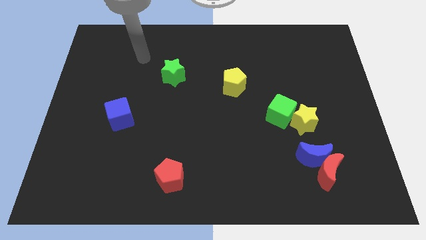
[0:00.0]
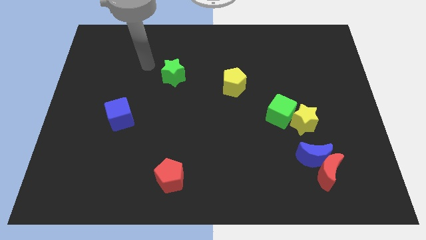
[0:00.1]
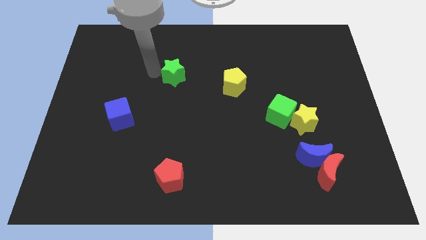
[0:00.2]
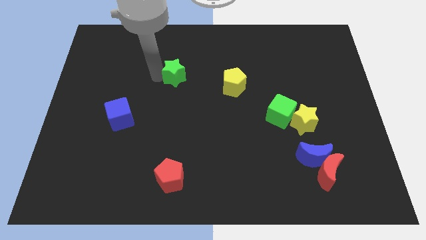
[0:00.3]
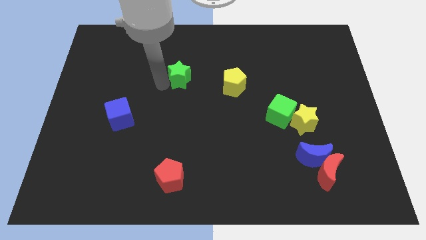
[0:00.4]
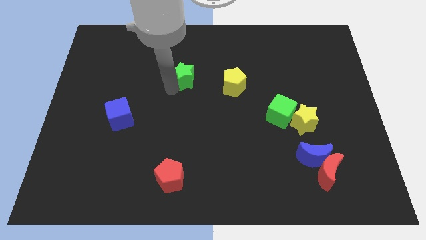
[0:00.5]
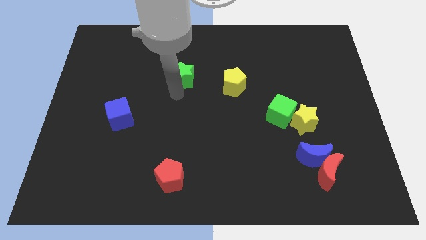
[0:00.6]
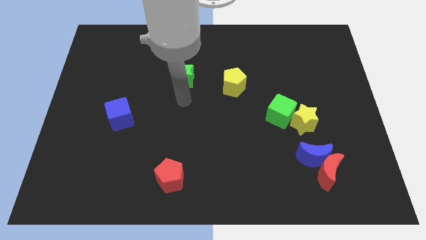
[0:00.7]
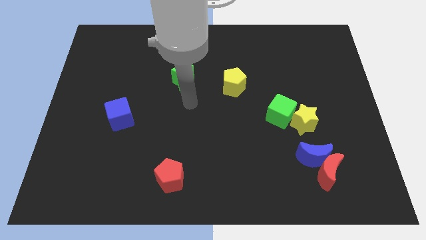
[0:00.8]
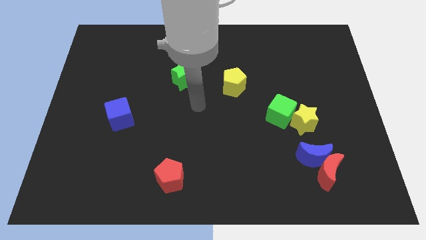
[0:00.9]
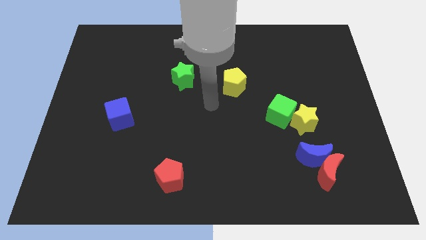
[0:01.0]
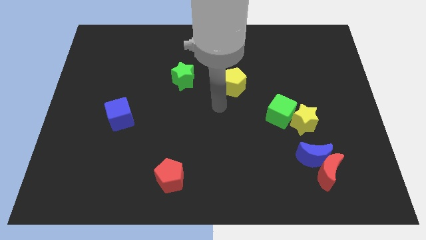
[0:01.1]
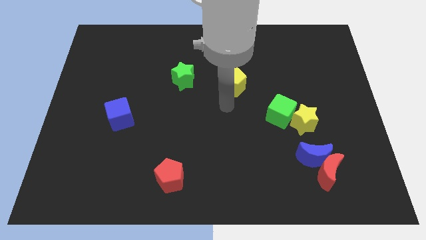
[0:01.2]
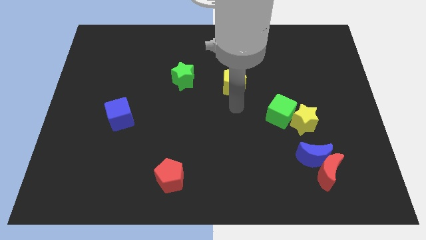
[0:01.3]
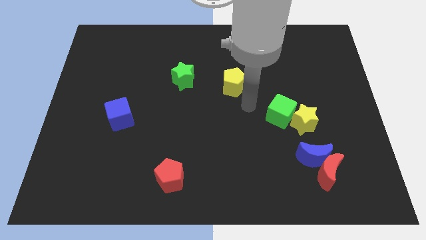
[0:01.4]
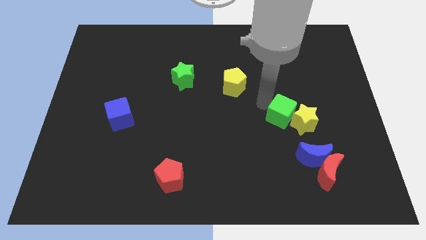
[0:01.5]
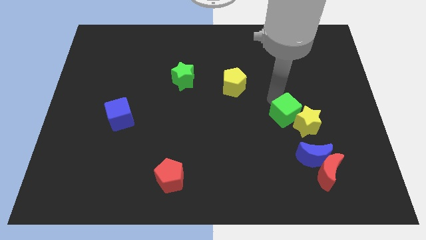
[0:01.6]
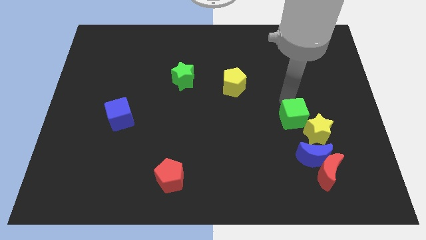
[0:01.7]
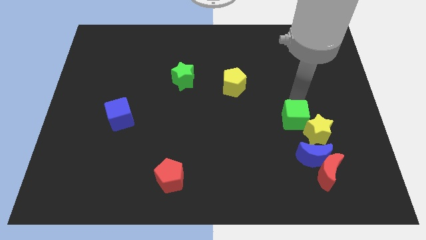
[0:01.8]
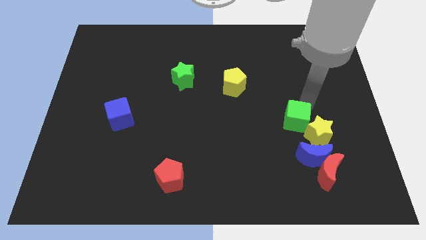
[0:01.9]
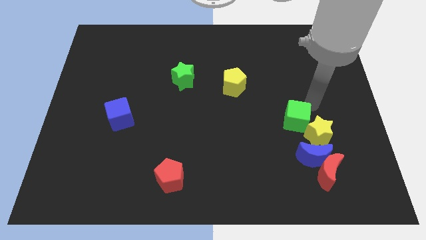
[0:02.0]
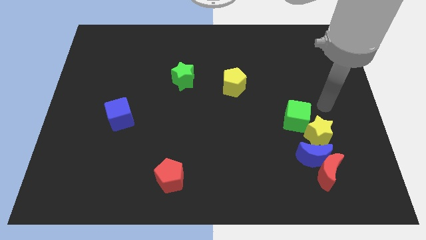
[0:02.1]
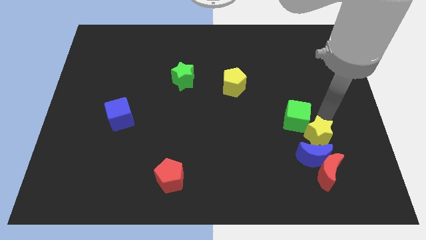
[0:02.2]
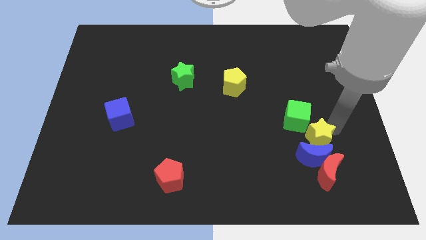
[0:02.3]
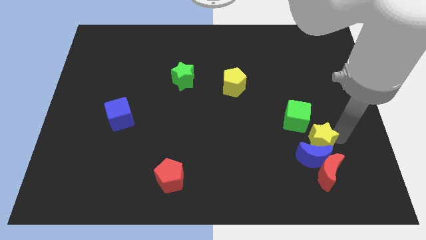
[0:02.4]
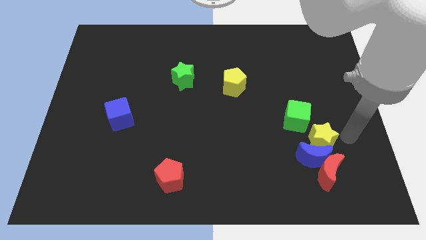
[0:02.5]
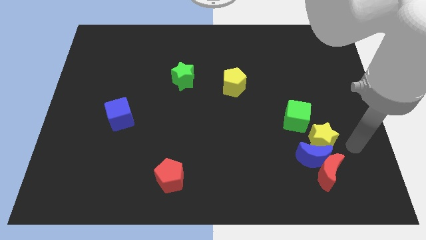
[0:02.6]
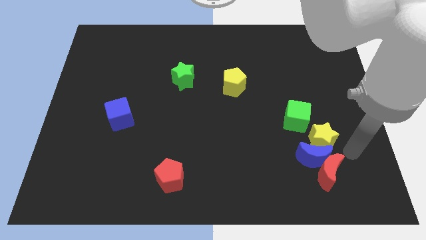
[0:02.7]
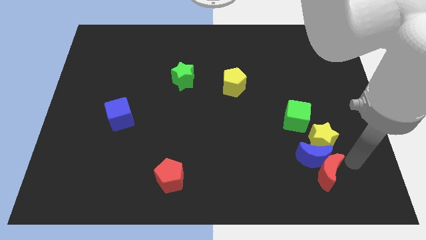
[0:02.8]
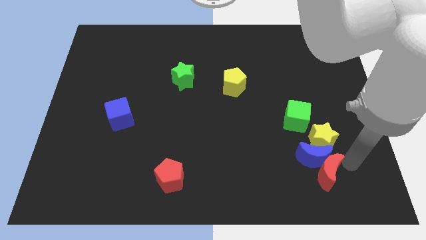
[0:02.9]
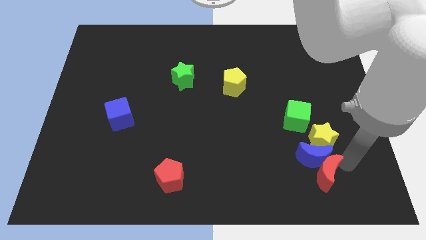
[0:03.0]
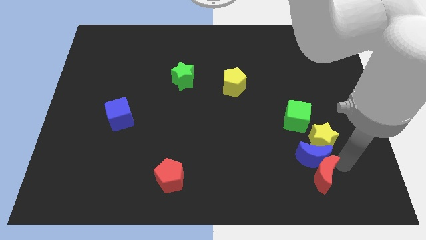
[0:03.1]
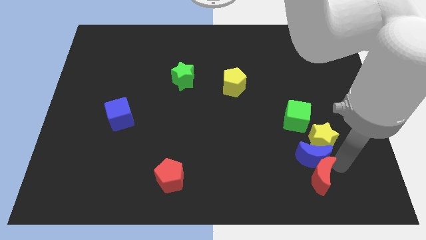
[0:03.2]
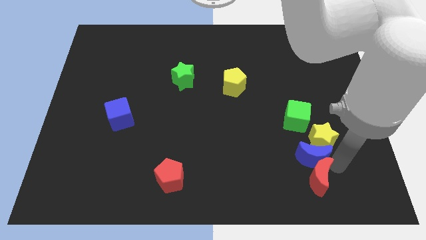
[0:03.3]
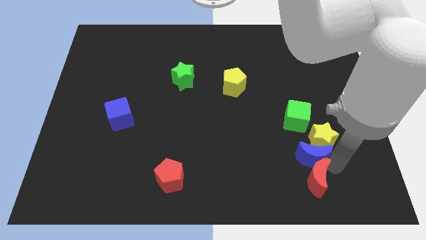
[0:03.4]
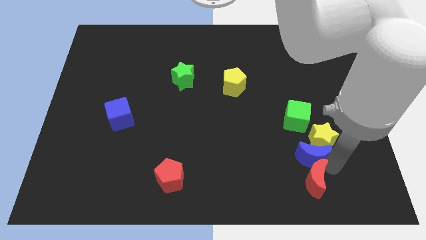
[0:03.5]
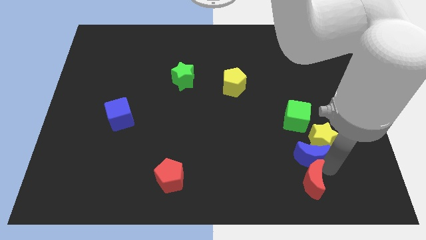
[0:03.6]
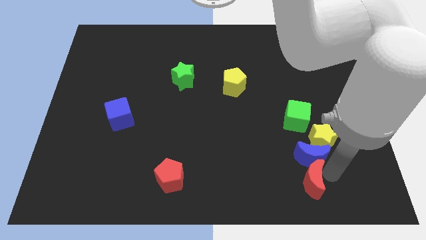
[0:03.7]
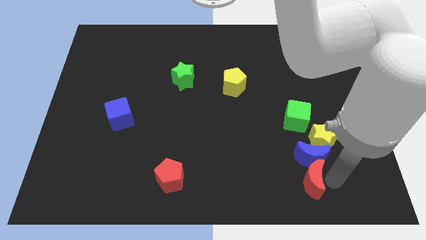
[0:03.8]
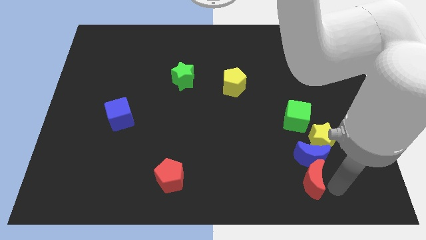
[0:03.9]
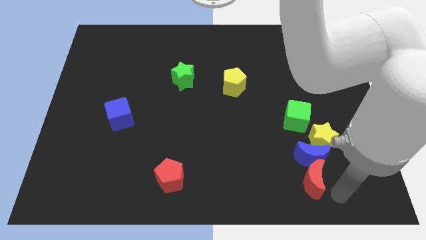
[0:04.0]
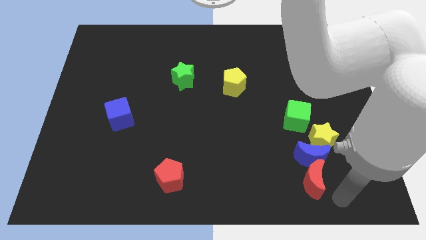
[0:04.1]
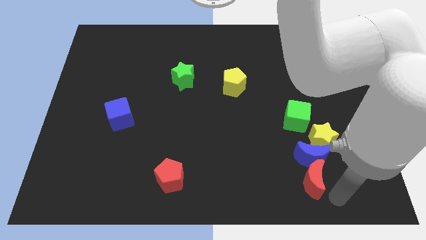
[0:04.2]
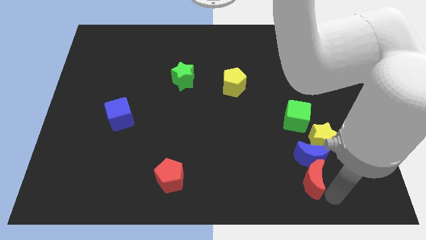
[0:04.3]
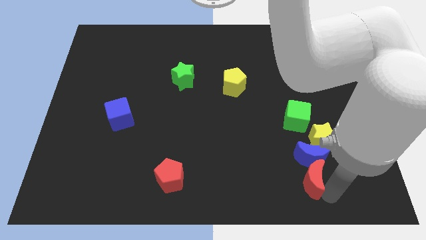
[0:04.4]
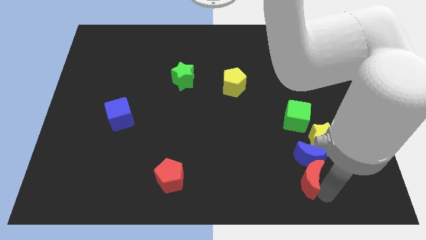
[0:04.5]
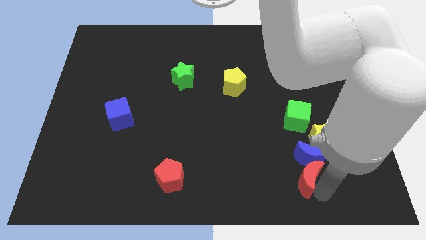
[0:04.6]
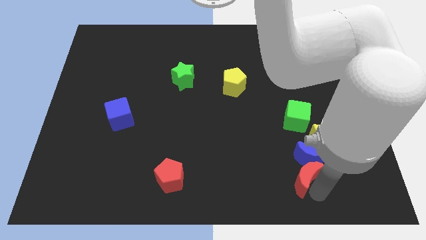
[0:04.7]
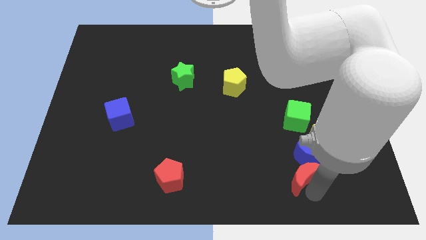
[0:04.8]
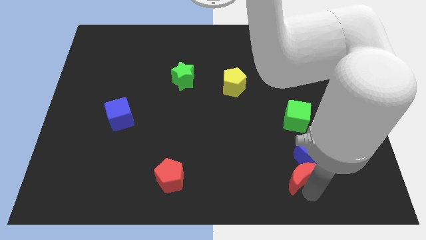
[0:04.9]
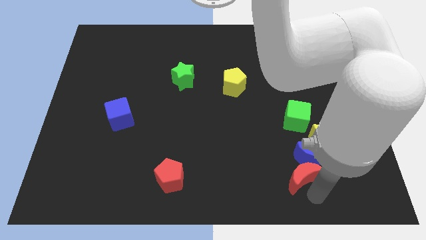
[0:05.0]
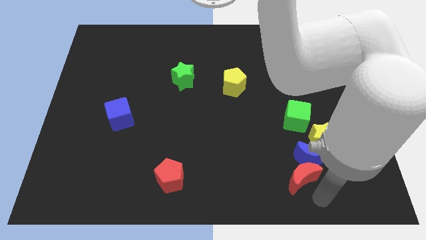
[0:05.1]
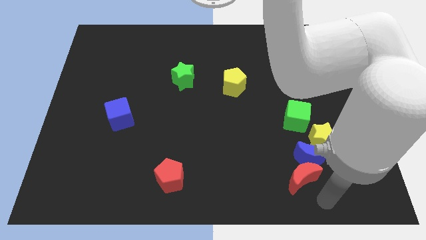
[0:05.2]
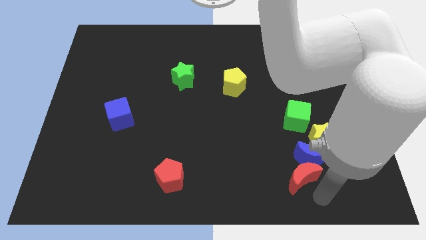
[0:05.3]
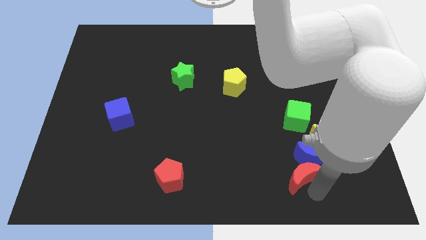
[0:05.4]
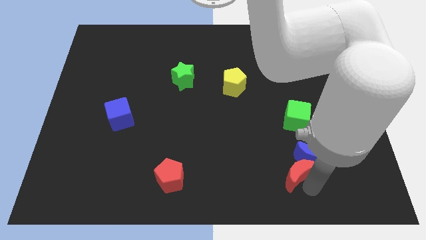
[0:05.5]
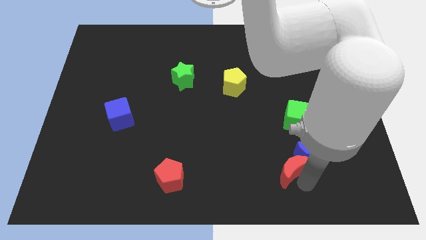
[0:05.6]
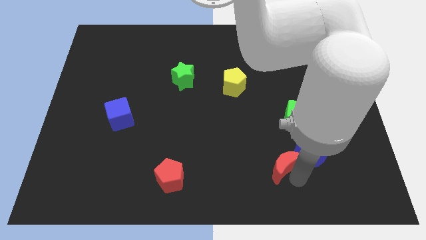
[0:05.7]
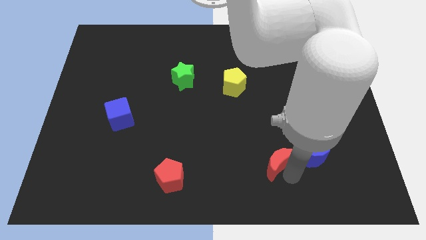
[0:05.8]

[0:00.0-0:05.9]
slightly push the red moon up and left diagonally

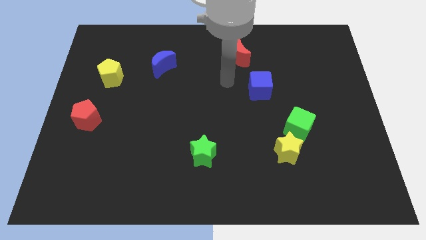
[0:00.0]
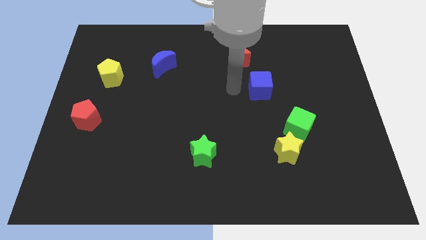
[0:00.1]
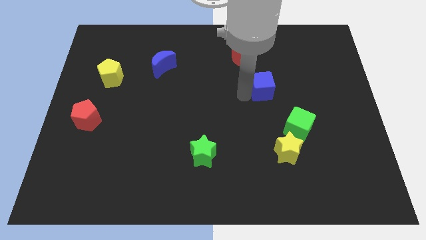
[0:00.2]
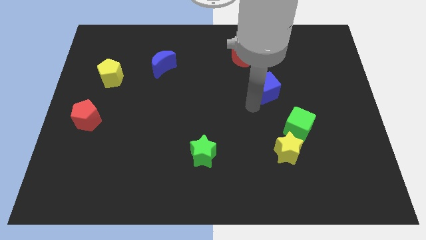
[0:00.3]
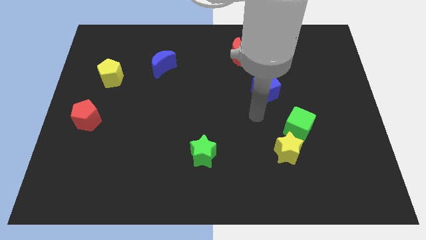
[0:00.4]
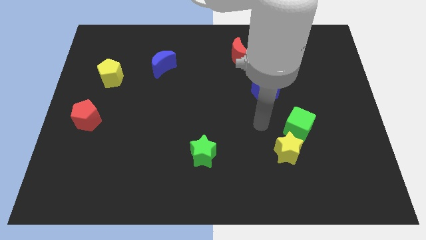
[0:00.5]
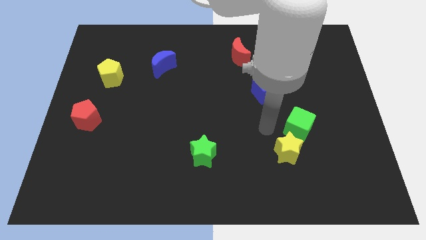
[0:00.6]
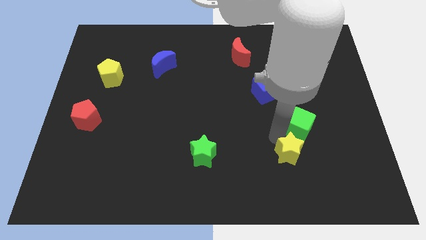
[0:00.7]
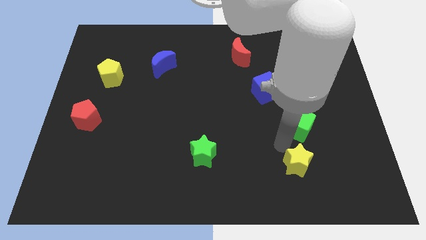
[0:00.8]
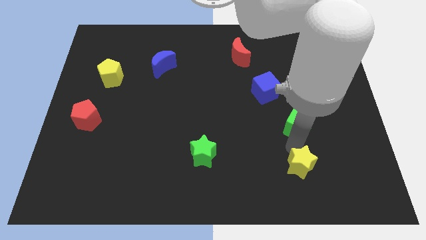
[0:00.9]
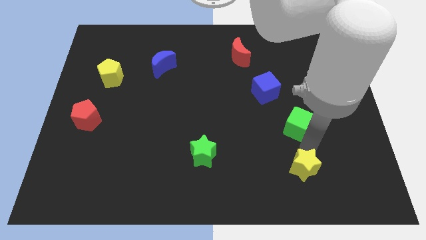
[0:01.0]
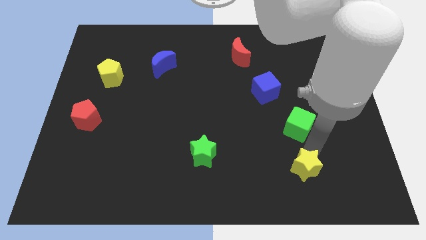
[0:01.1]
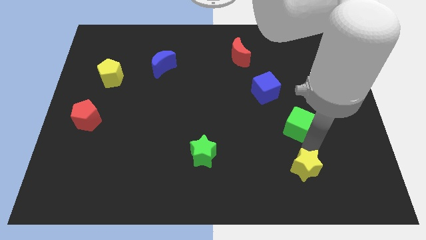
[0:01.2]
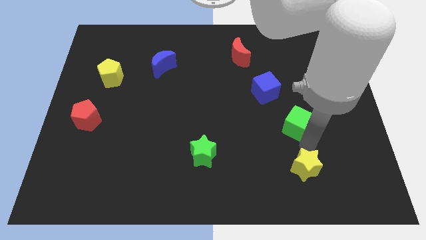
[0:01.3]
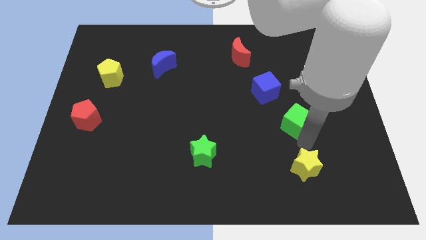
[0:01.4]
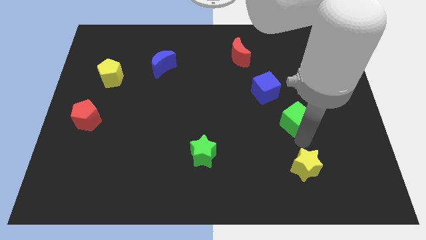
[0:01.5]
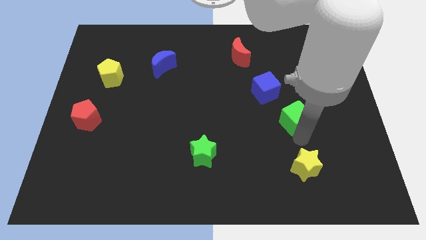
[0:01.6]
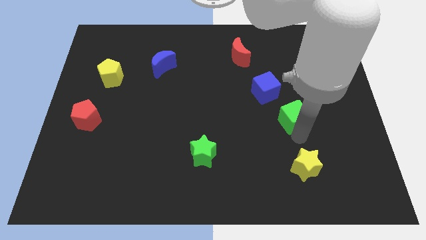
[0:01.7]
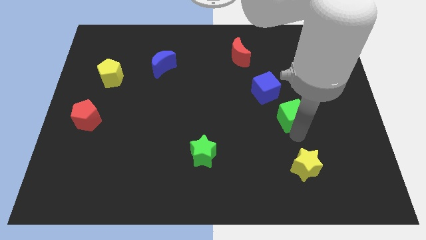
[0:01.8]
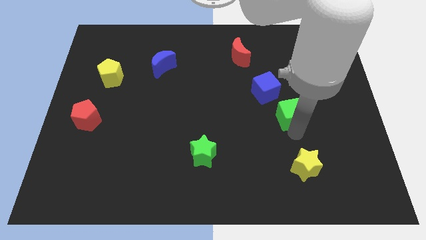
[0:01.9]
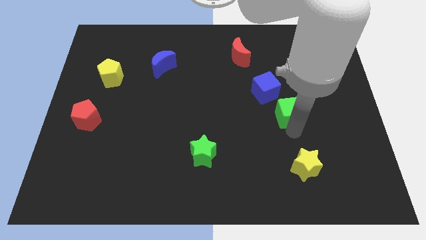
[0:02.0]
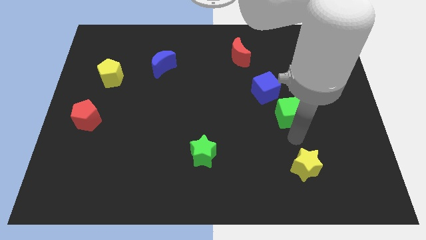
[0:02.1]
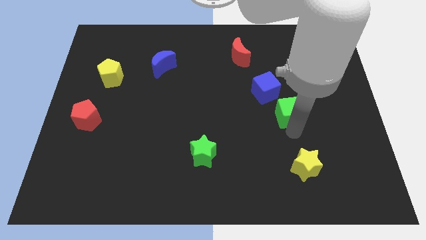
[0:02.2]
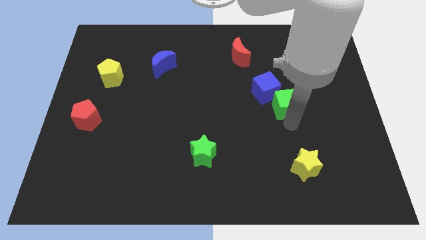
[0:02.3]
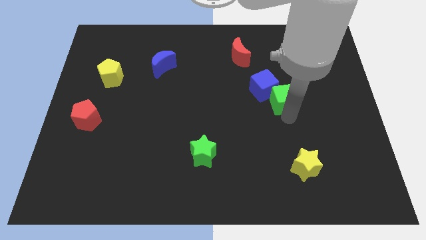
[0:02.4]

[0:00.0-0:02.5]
slightly move the green cube up
